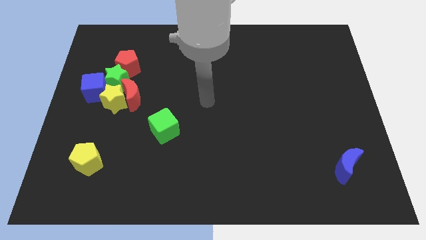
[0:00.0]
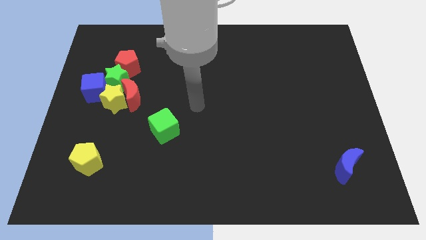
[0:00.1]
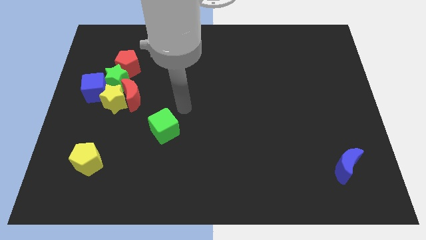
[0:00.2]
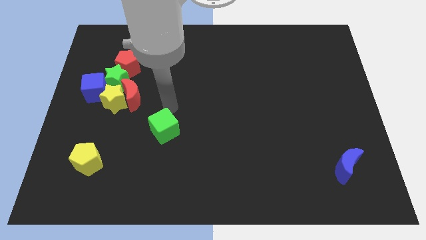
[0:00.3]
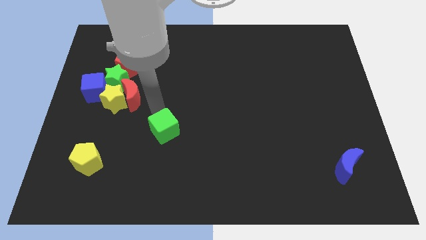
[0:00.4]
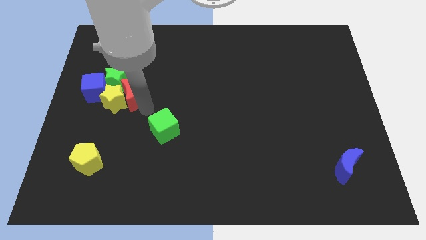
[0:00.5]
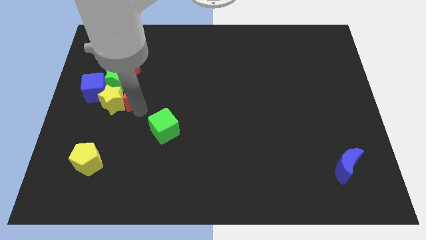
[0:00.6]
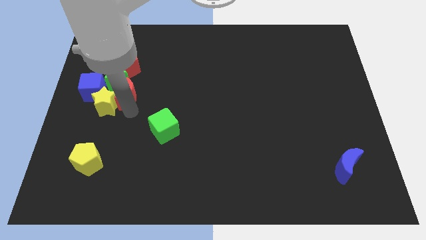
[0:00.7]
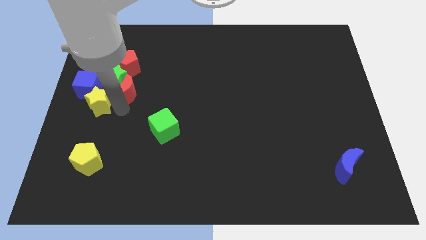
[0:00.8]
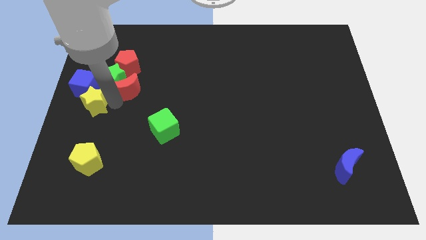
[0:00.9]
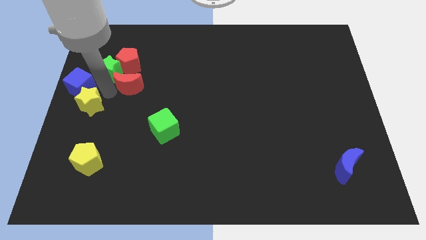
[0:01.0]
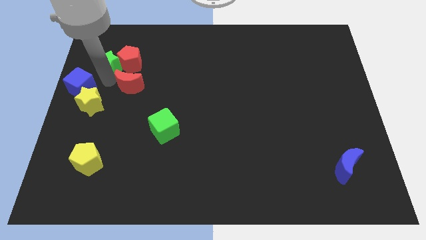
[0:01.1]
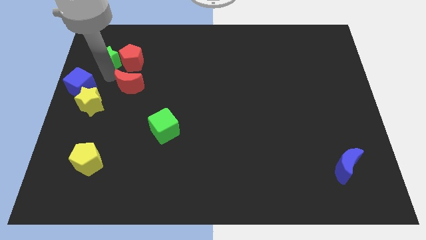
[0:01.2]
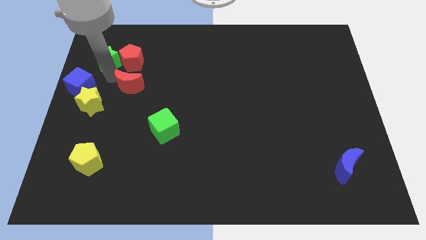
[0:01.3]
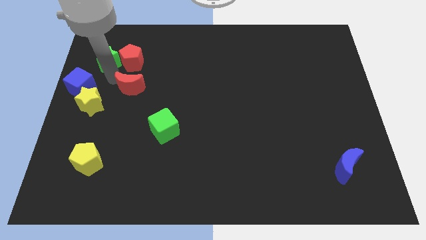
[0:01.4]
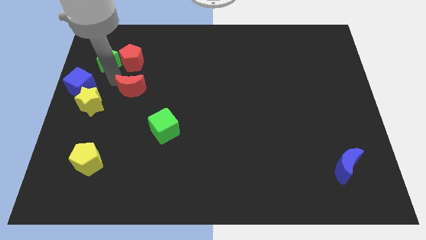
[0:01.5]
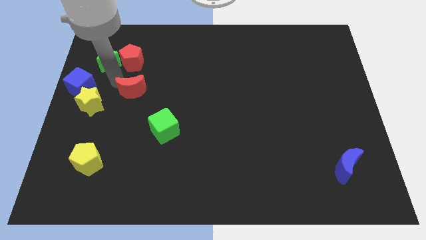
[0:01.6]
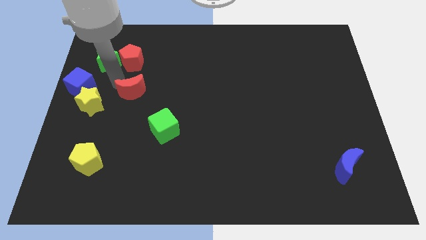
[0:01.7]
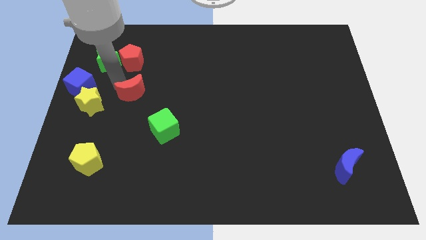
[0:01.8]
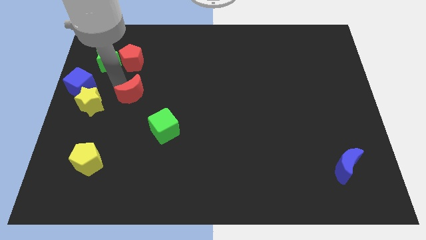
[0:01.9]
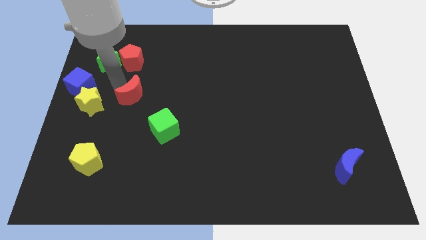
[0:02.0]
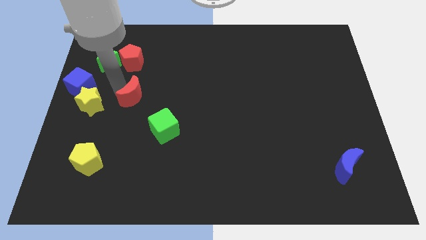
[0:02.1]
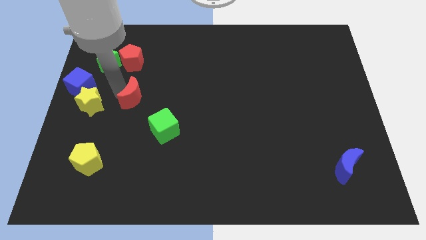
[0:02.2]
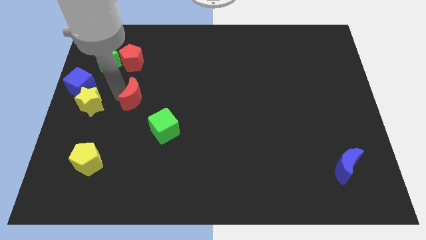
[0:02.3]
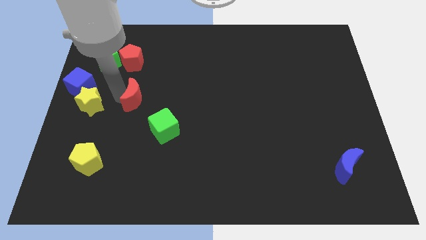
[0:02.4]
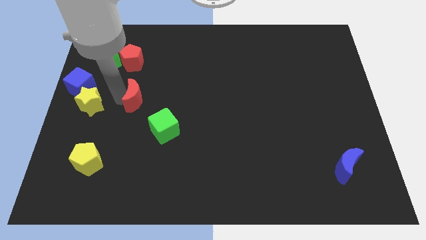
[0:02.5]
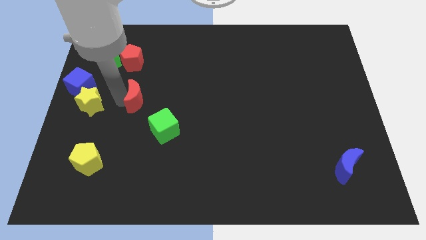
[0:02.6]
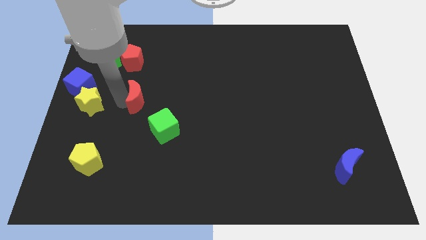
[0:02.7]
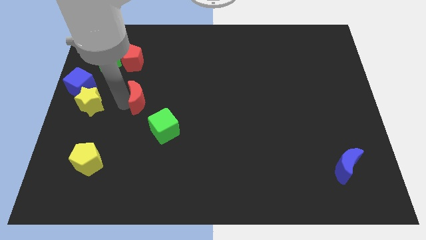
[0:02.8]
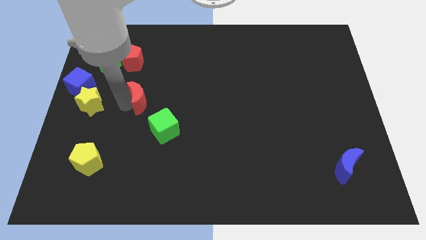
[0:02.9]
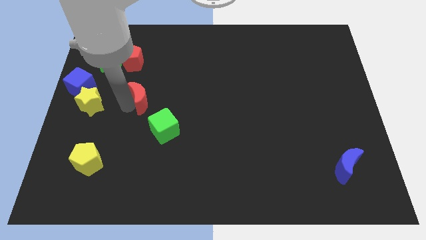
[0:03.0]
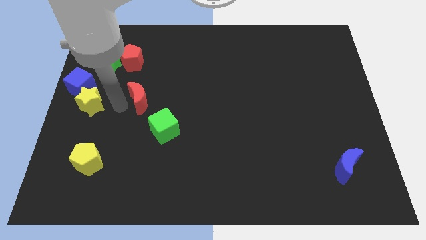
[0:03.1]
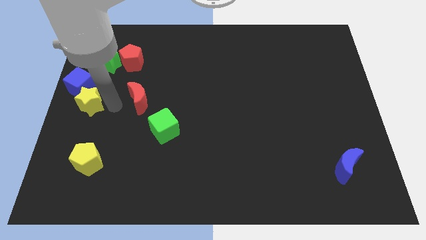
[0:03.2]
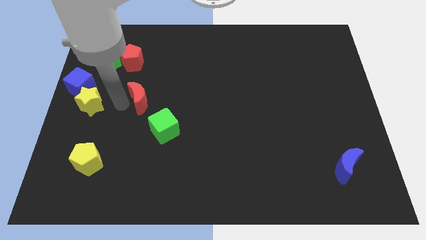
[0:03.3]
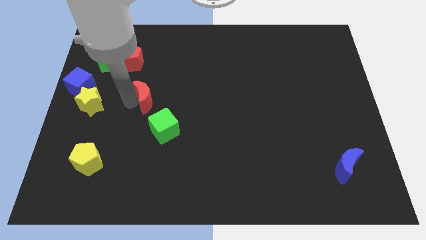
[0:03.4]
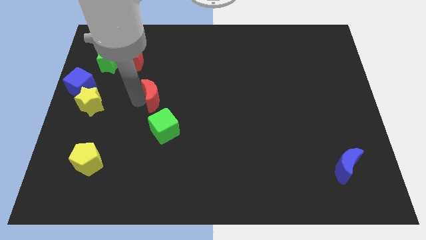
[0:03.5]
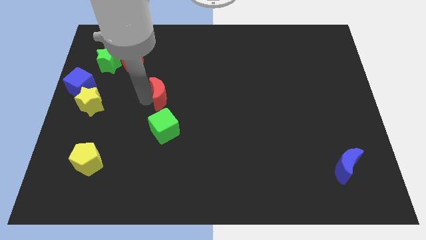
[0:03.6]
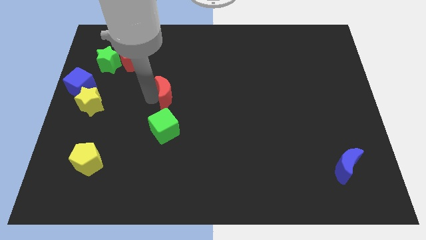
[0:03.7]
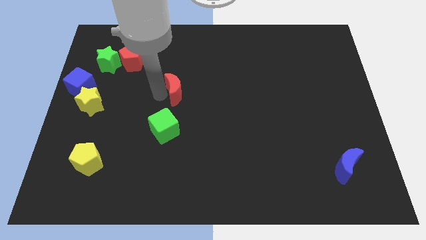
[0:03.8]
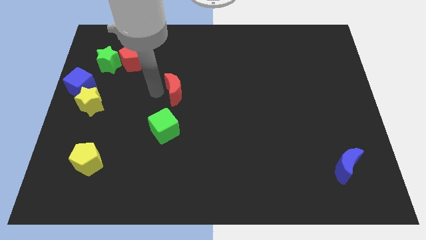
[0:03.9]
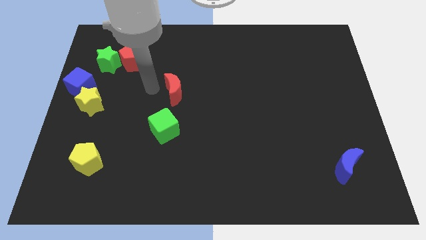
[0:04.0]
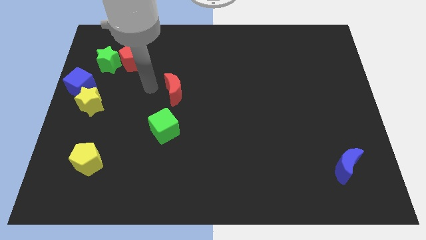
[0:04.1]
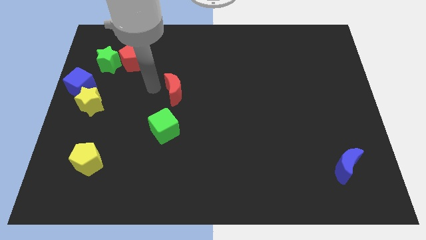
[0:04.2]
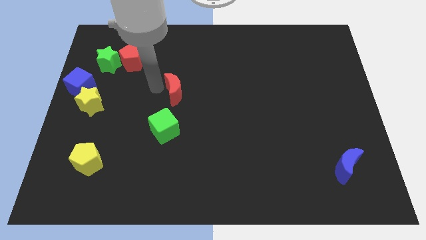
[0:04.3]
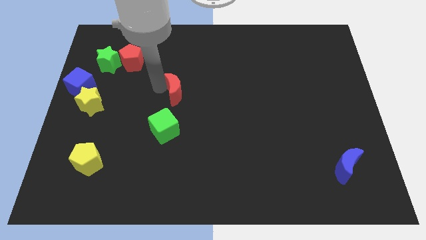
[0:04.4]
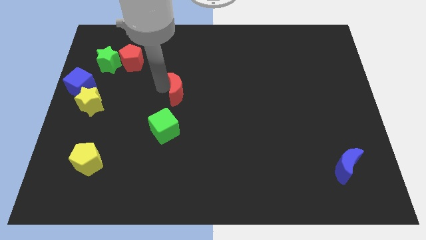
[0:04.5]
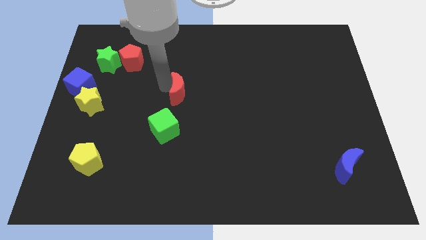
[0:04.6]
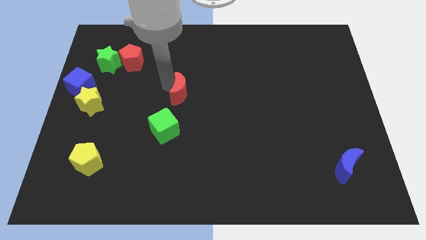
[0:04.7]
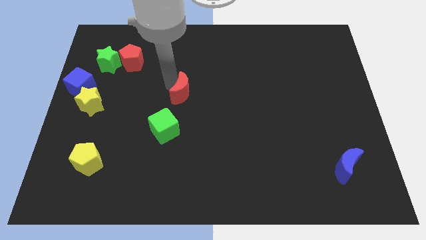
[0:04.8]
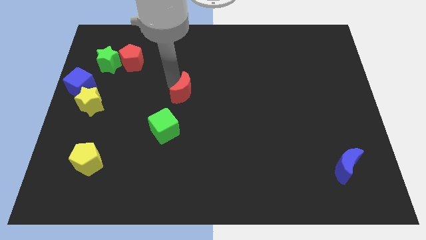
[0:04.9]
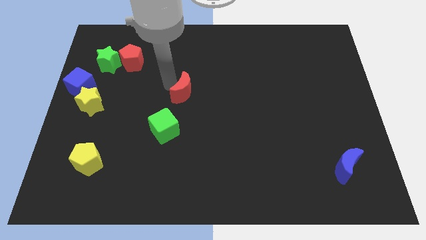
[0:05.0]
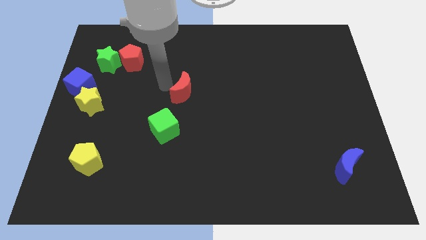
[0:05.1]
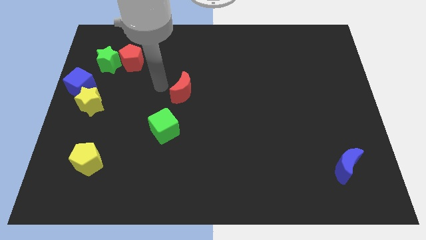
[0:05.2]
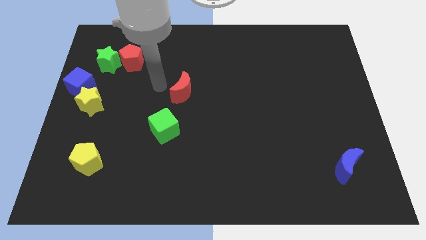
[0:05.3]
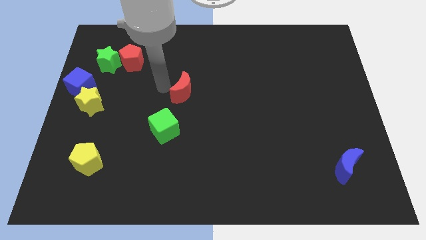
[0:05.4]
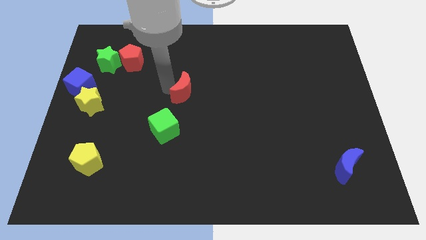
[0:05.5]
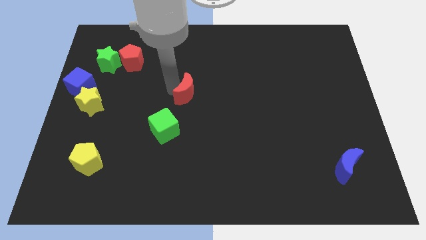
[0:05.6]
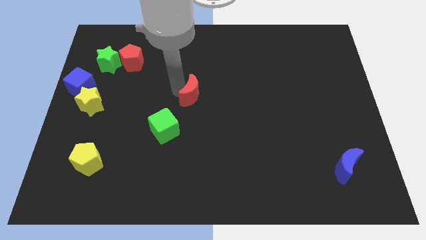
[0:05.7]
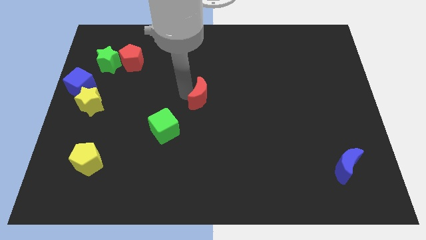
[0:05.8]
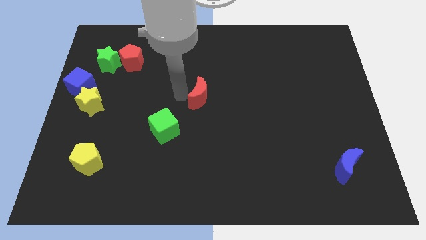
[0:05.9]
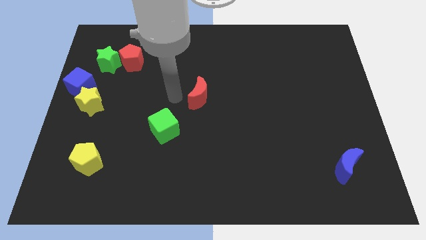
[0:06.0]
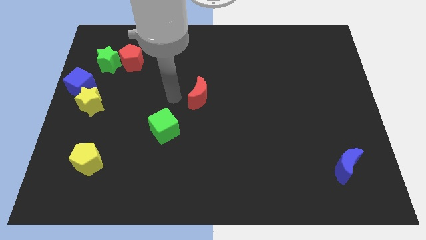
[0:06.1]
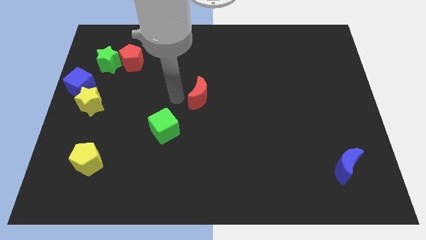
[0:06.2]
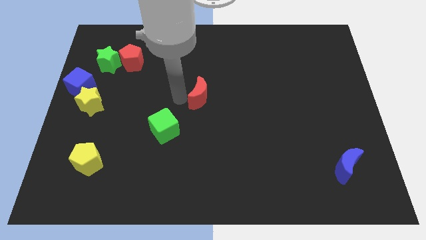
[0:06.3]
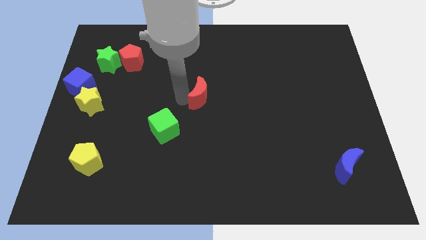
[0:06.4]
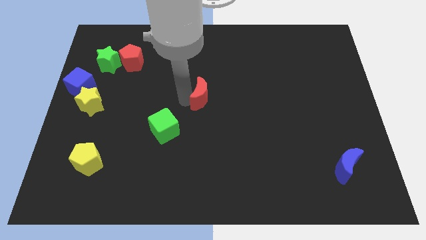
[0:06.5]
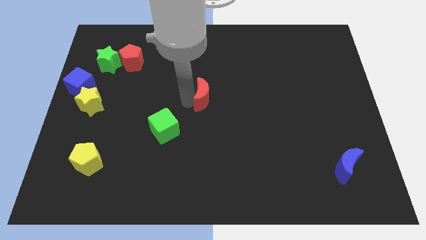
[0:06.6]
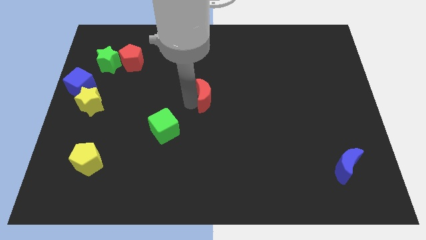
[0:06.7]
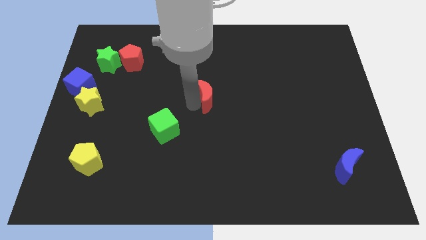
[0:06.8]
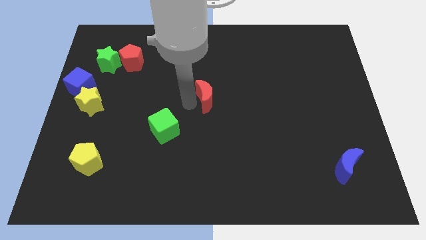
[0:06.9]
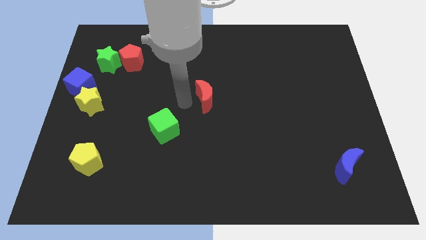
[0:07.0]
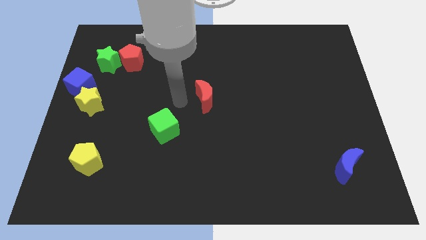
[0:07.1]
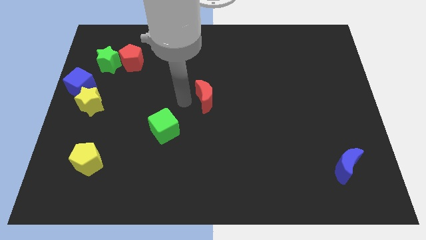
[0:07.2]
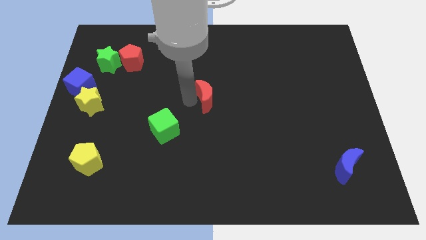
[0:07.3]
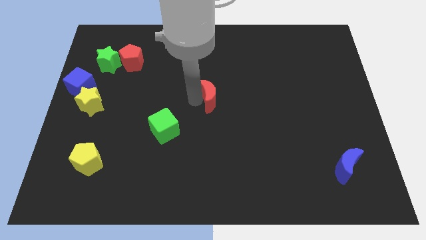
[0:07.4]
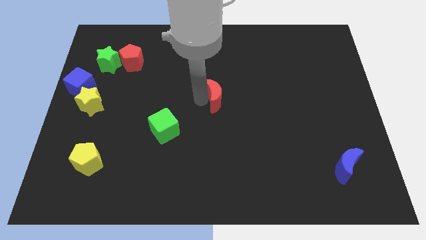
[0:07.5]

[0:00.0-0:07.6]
slide the red moon to the right

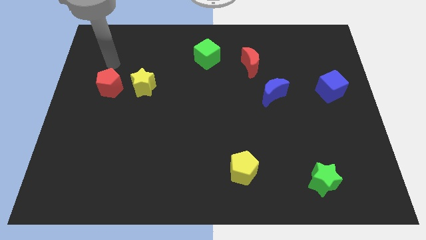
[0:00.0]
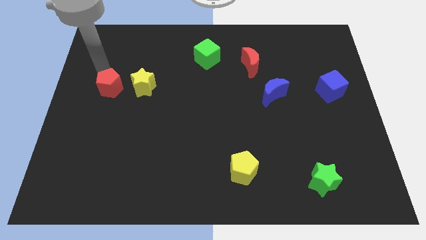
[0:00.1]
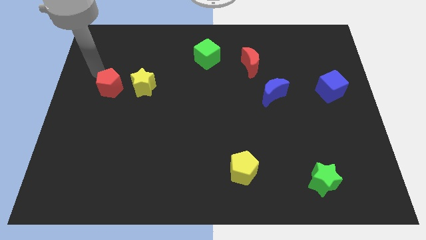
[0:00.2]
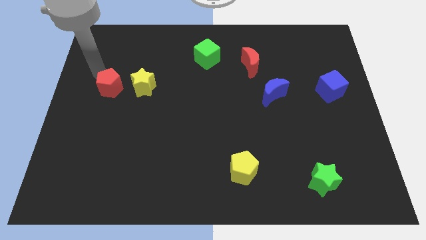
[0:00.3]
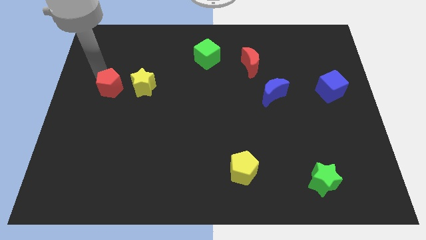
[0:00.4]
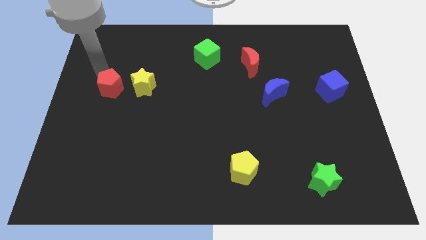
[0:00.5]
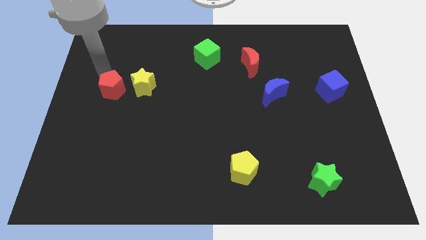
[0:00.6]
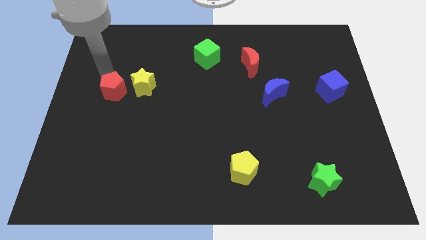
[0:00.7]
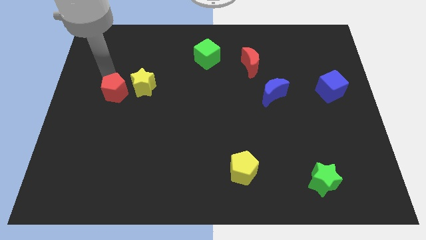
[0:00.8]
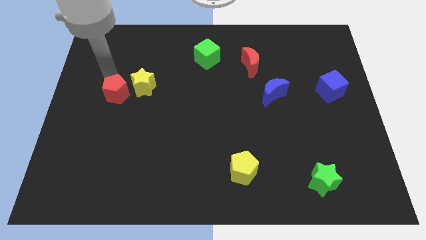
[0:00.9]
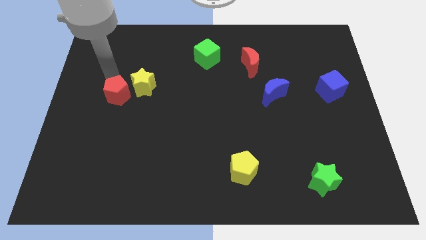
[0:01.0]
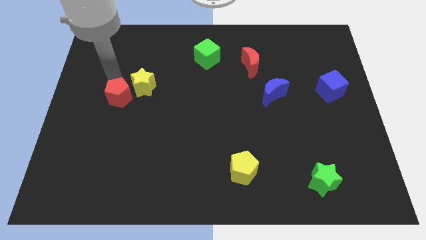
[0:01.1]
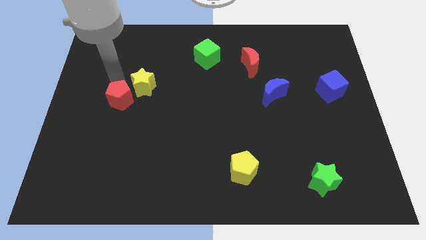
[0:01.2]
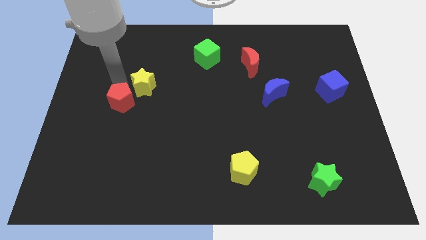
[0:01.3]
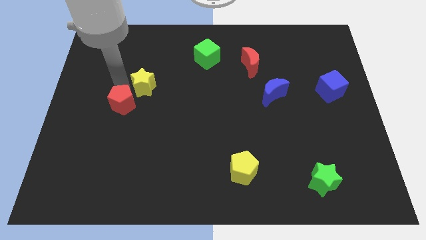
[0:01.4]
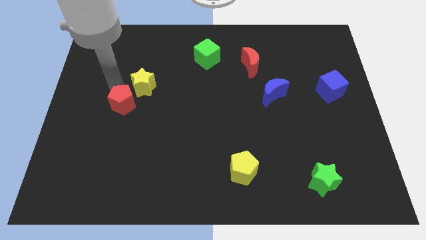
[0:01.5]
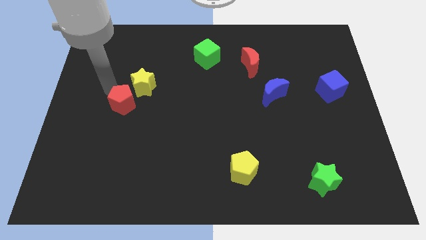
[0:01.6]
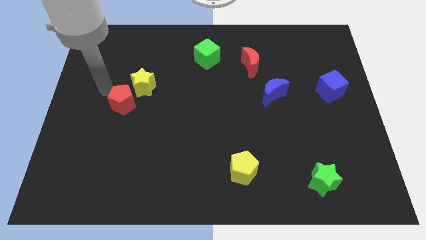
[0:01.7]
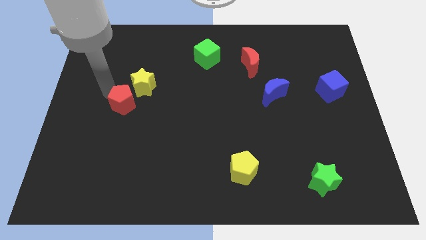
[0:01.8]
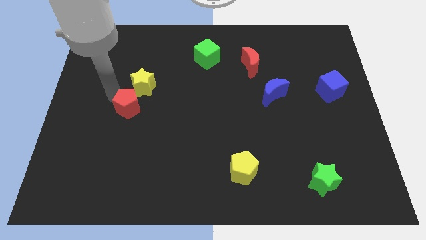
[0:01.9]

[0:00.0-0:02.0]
move the red pentagon somewhat downwards and then right
